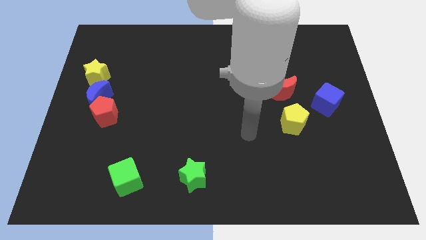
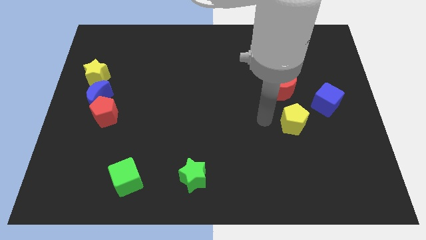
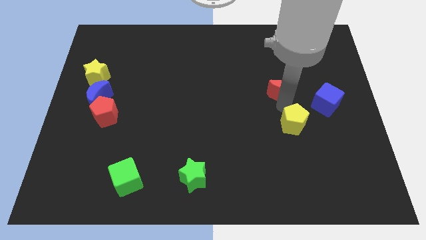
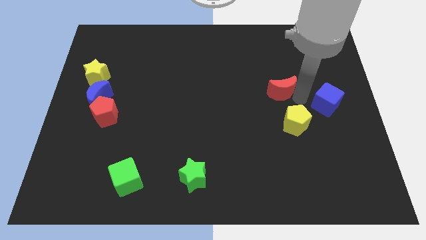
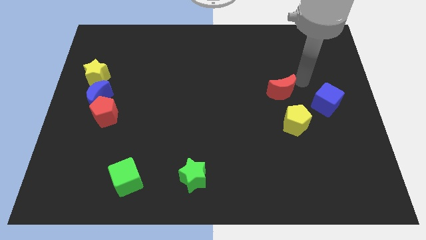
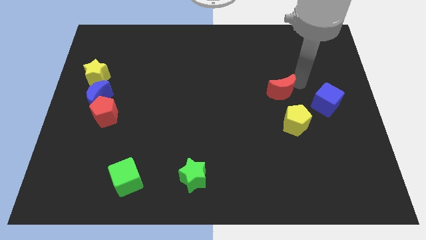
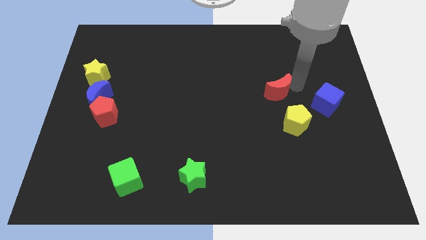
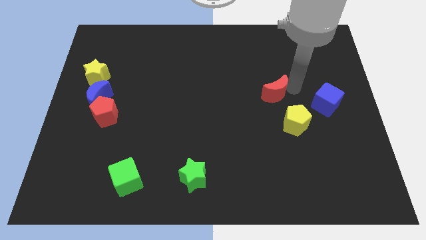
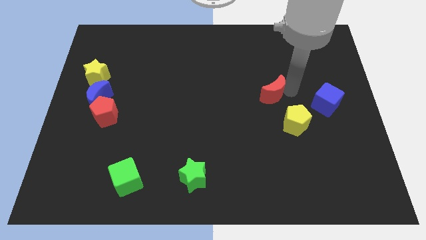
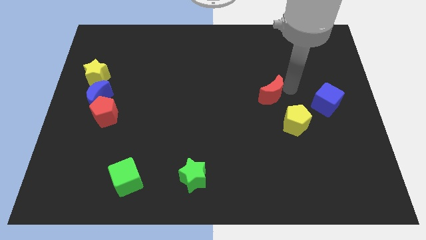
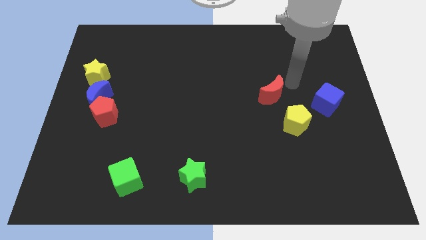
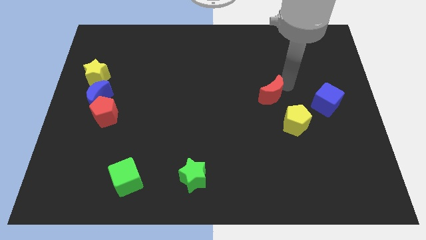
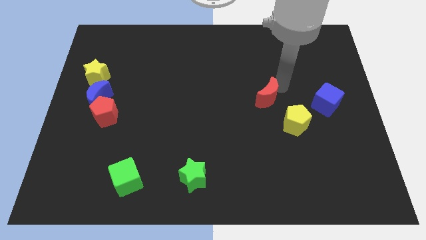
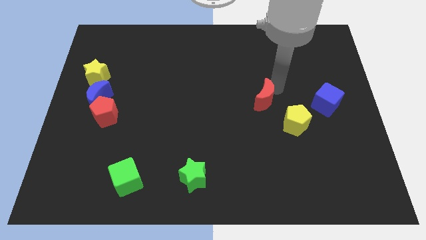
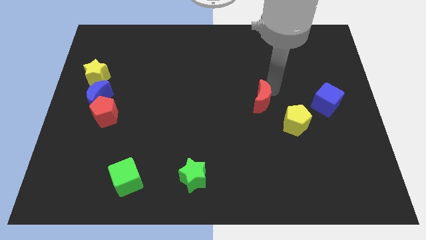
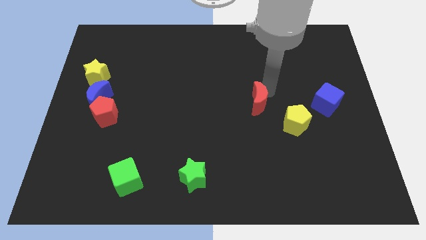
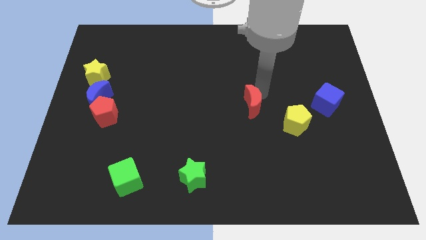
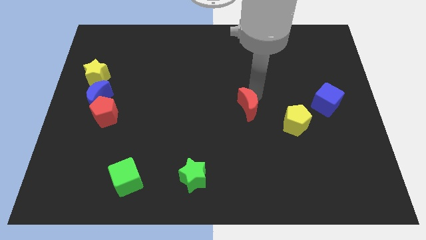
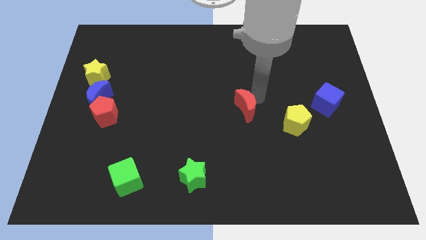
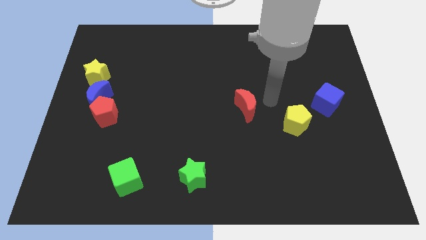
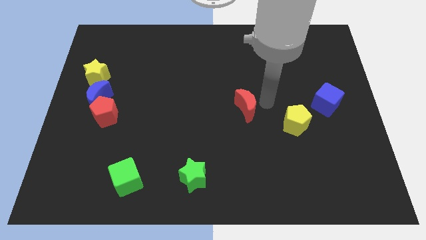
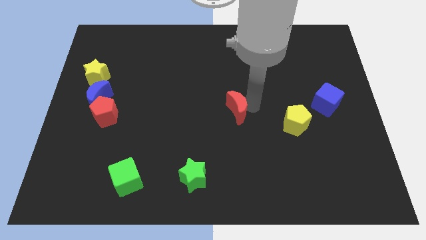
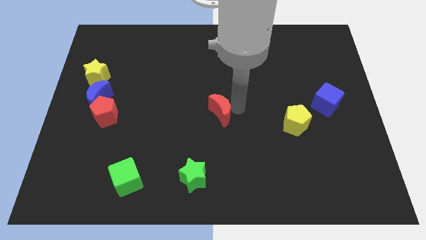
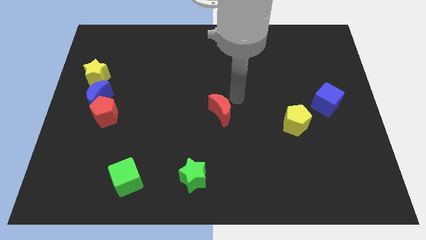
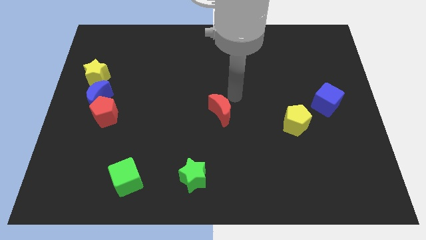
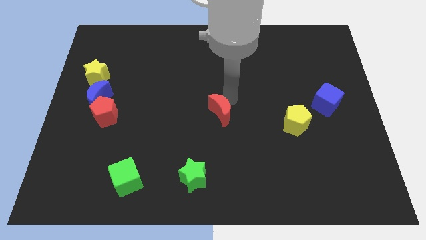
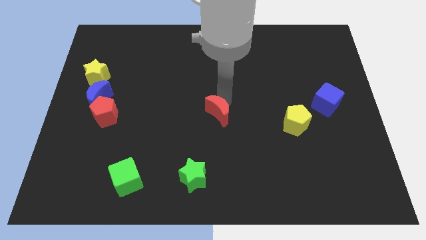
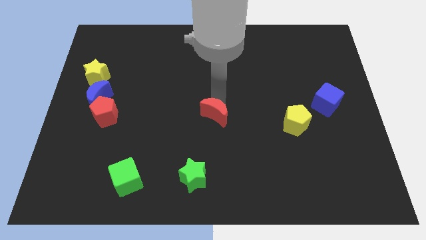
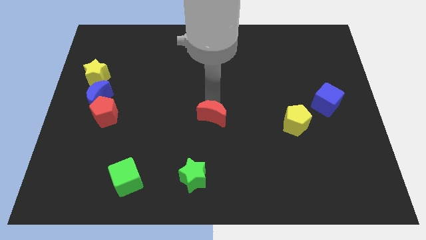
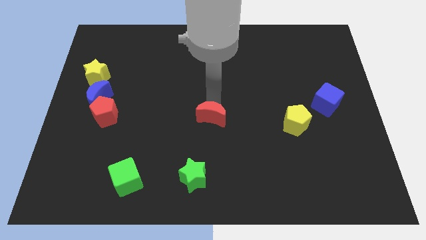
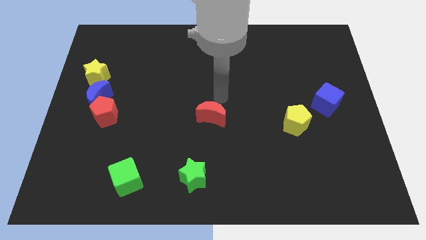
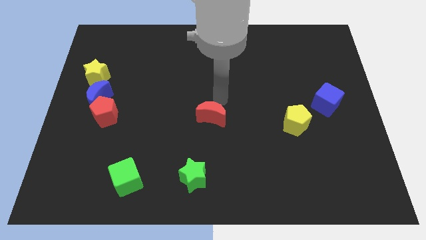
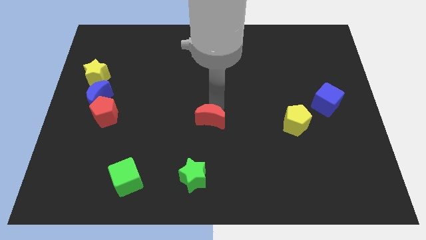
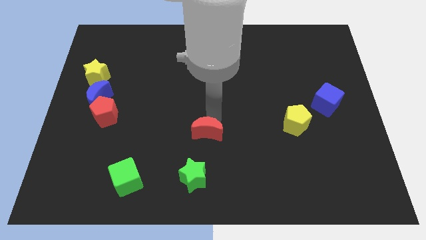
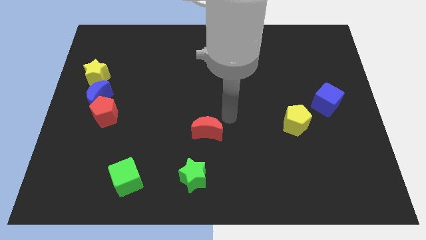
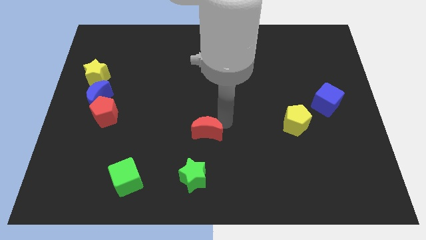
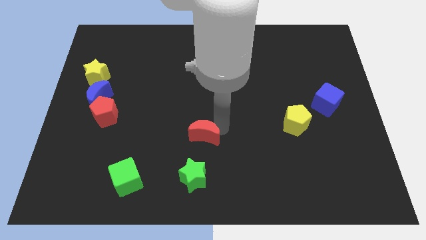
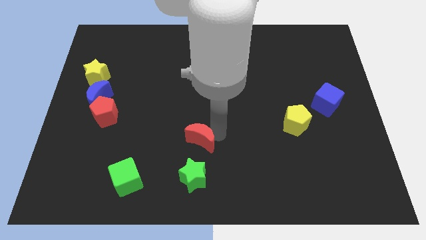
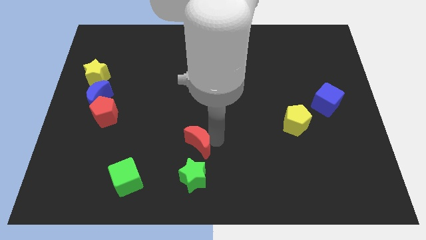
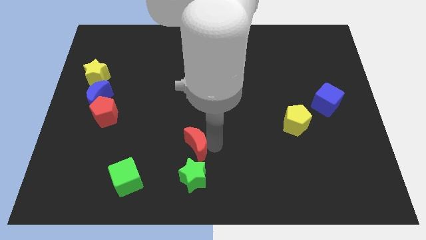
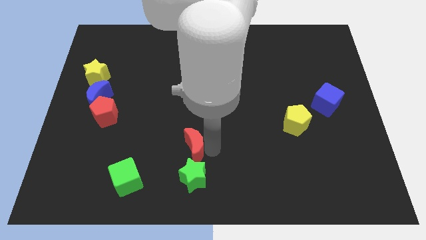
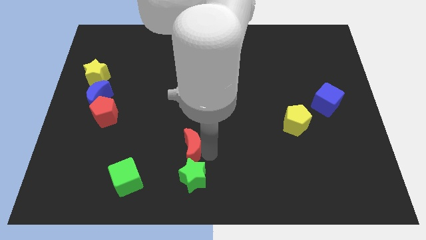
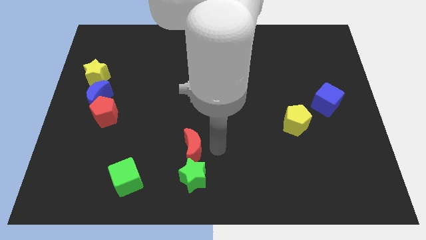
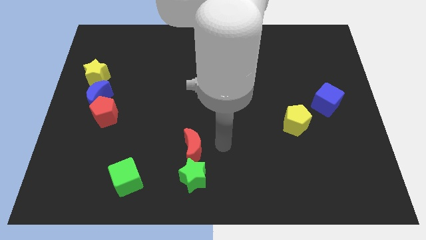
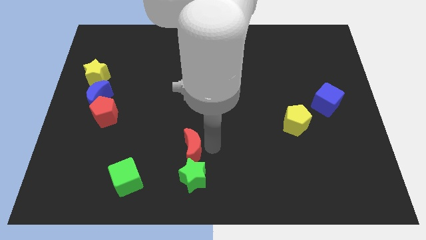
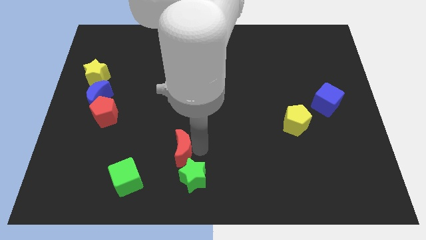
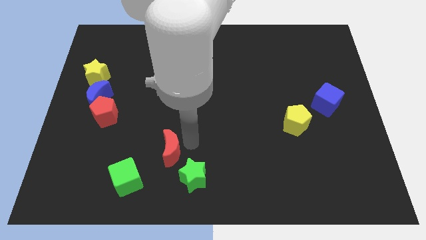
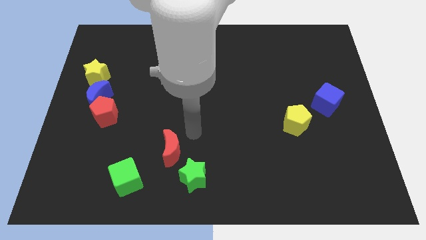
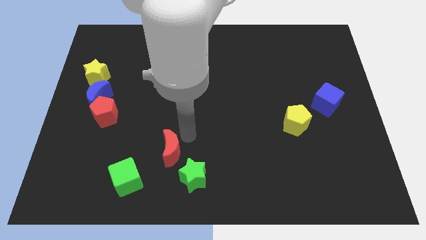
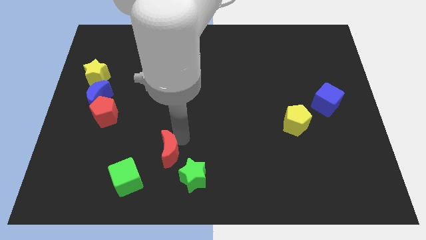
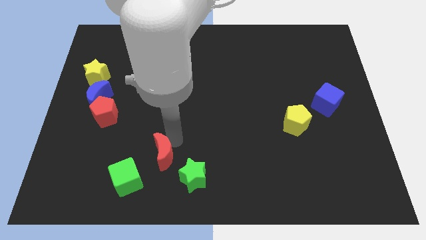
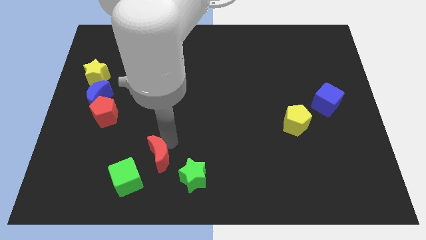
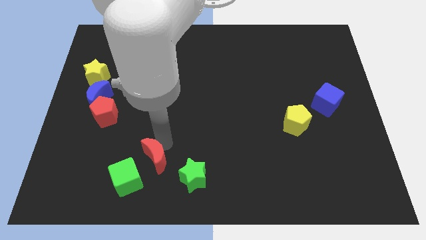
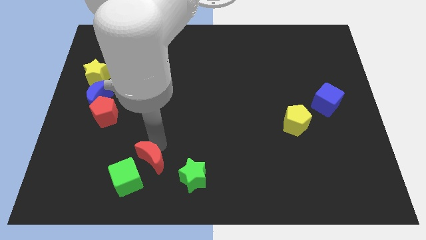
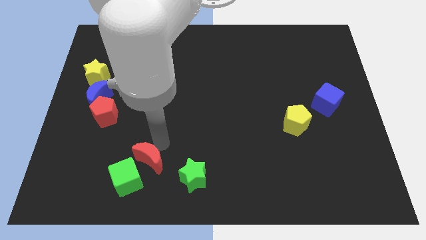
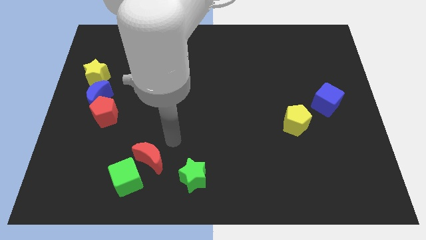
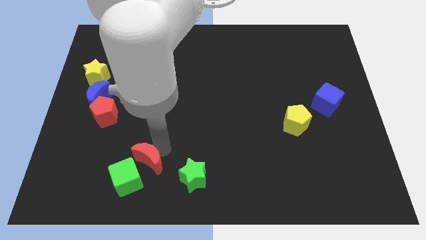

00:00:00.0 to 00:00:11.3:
move the red moon towards the green cube

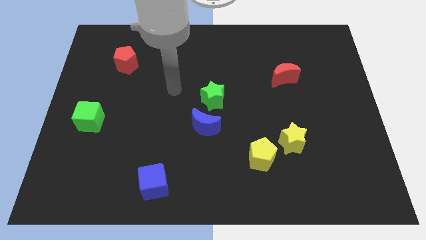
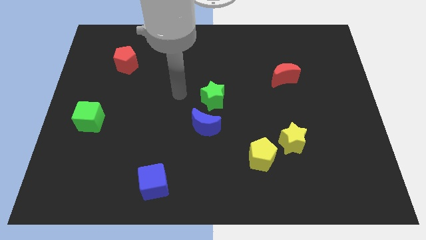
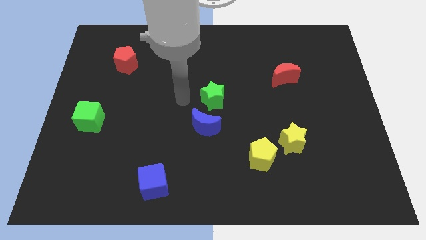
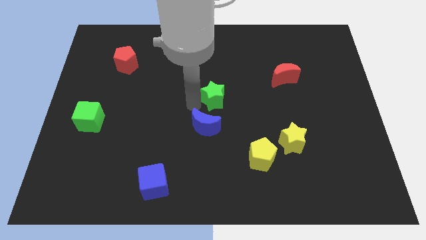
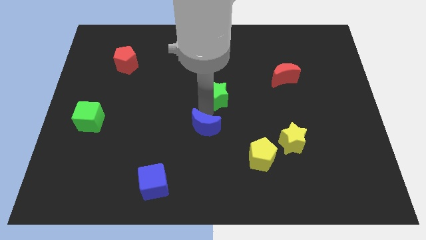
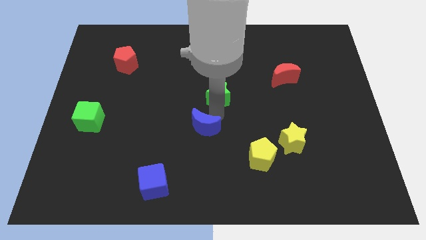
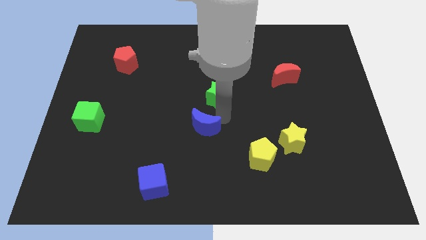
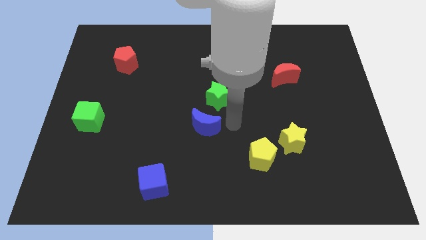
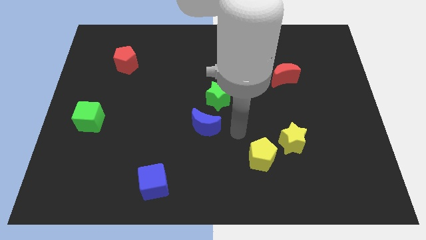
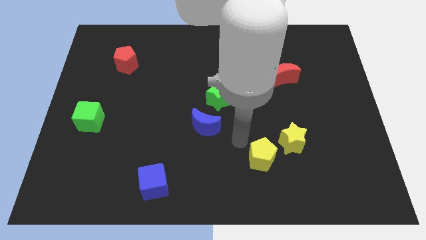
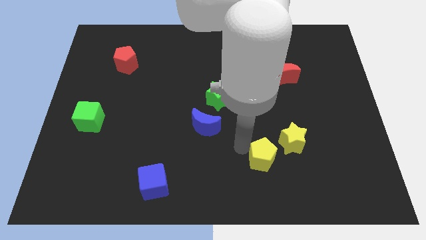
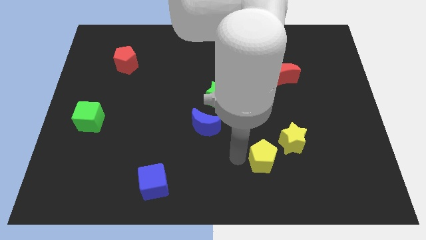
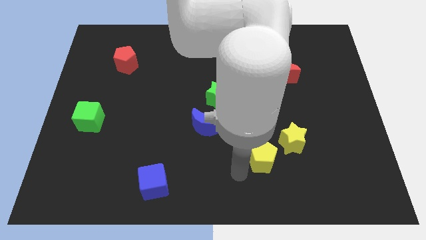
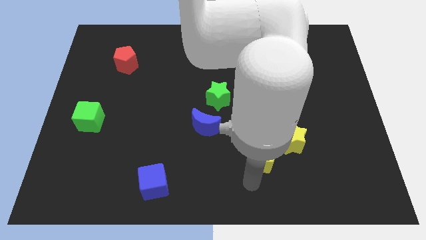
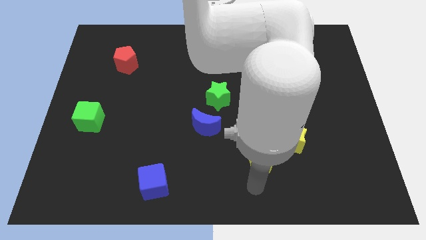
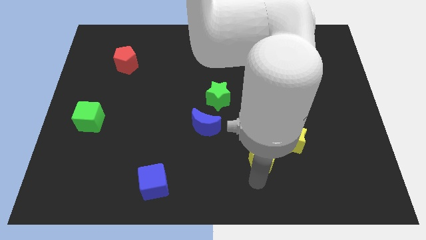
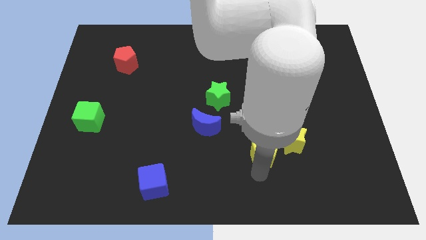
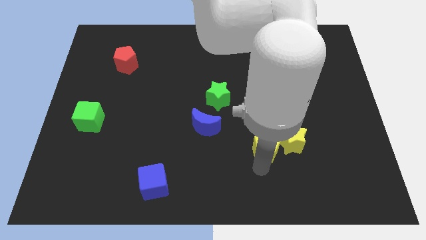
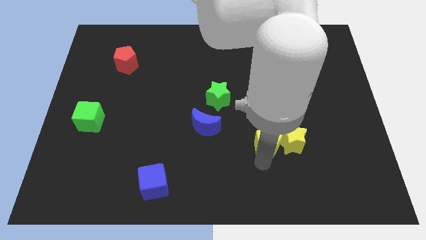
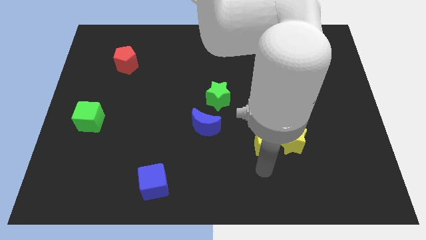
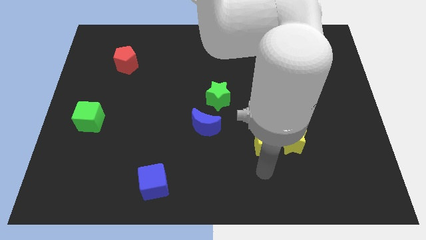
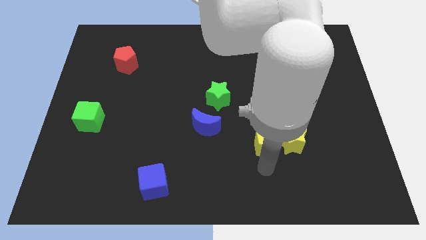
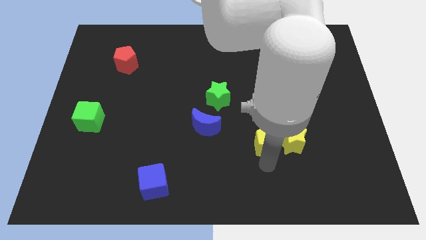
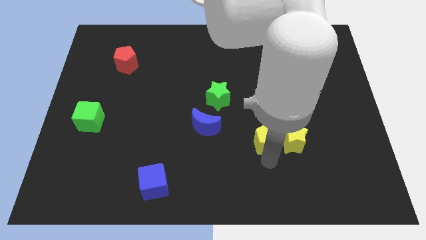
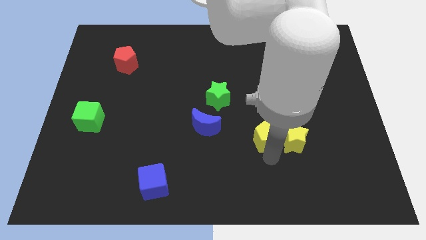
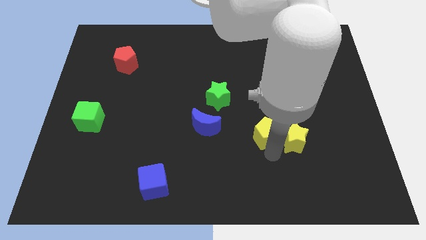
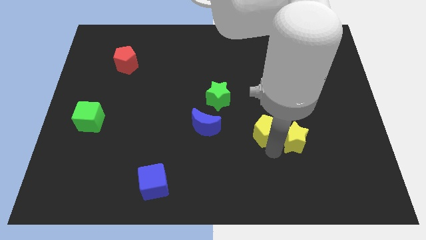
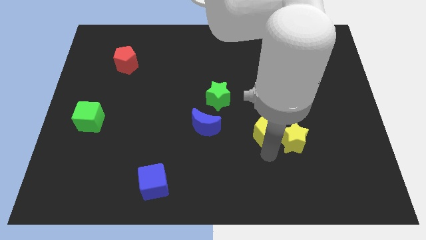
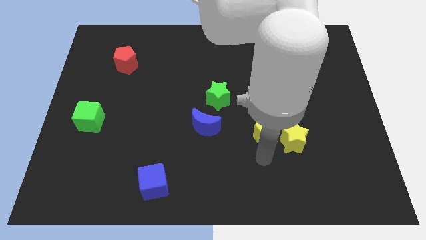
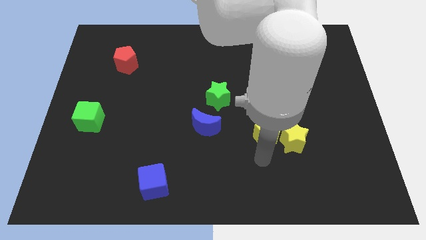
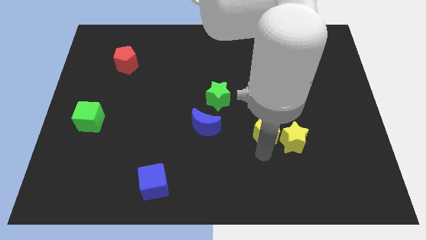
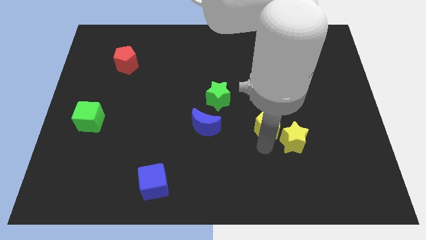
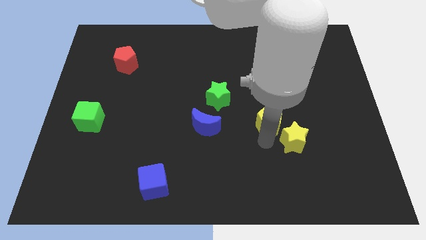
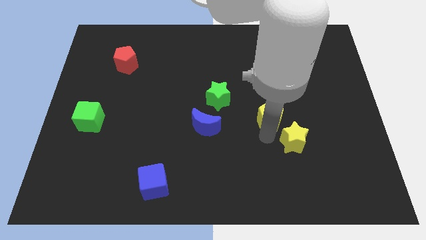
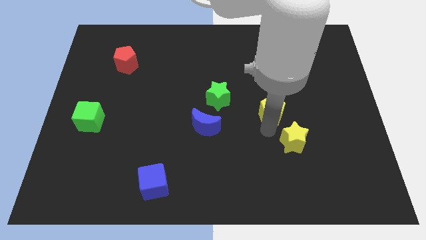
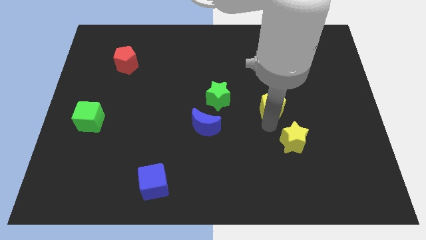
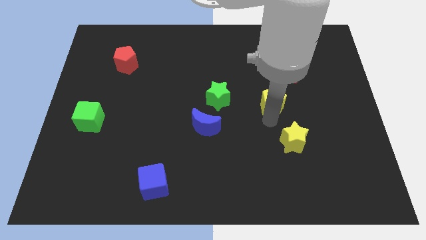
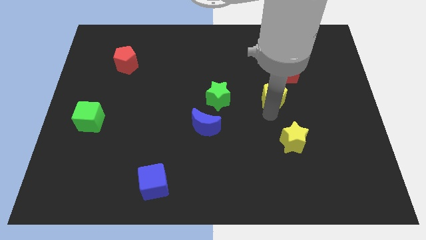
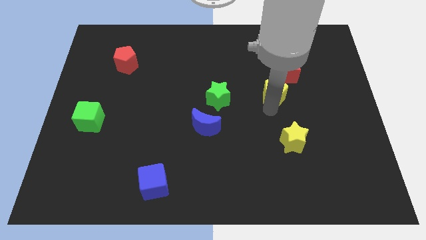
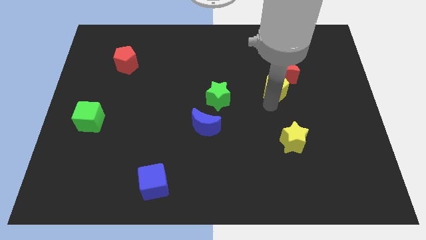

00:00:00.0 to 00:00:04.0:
put the yellow pentagon to the red moon
